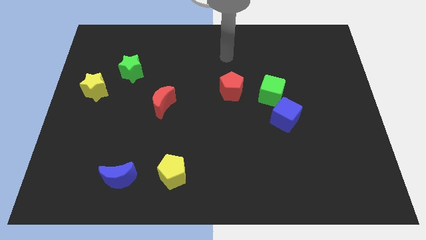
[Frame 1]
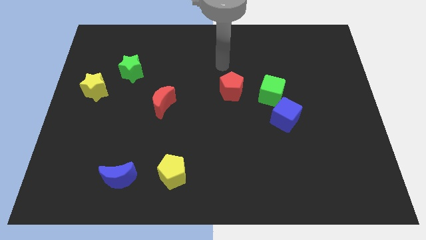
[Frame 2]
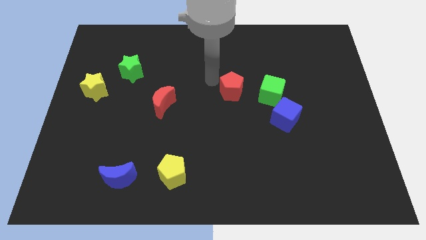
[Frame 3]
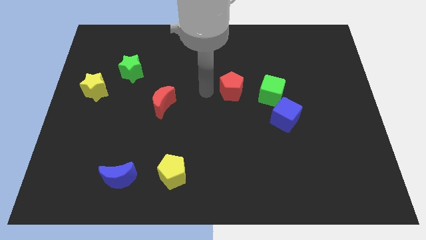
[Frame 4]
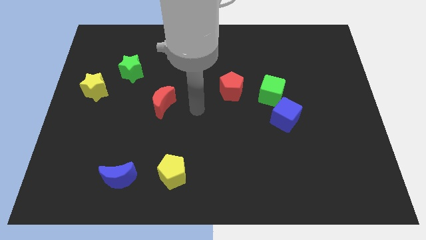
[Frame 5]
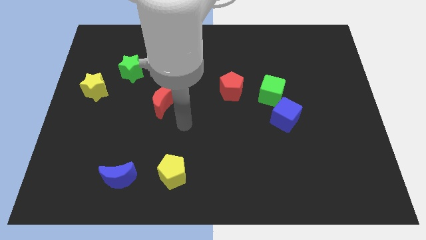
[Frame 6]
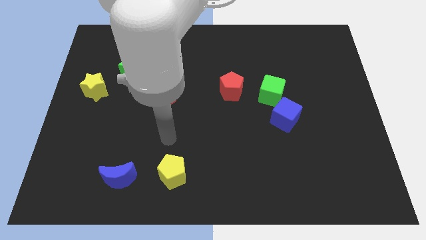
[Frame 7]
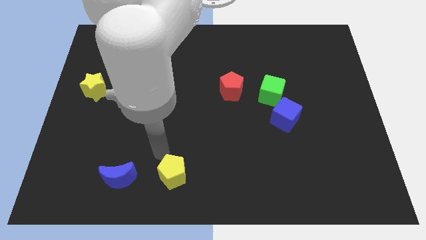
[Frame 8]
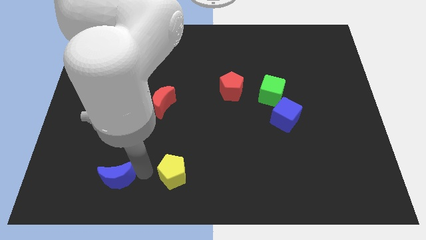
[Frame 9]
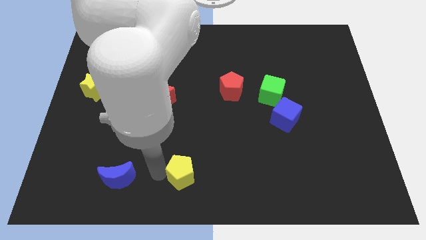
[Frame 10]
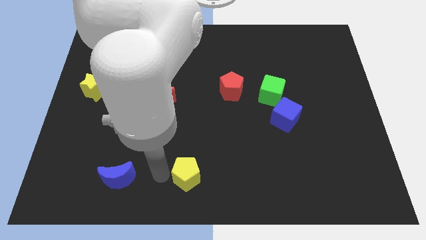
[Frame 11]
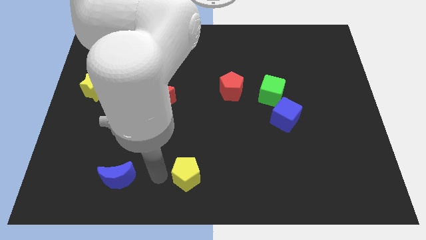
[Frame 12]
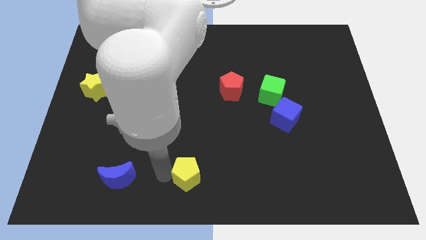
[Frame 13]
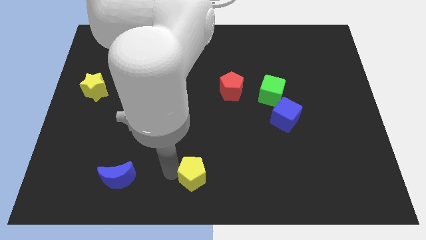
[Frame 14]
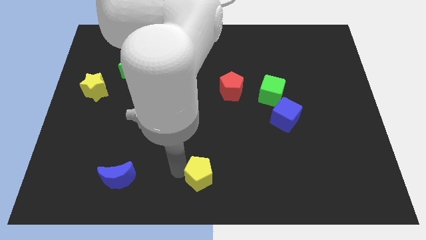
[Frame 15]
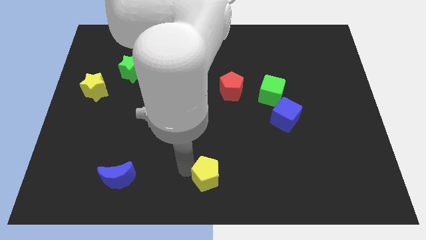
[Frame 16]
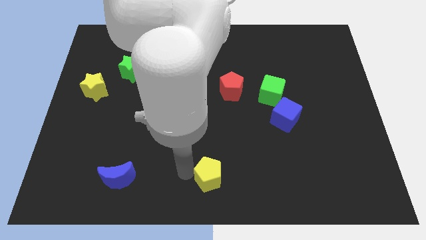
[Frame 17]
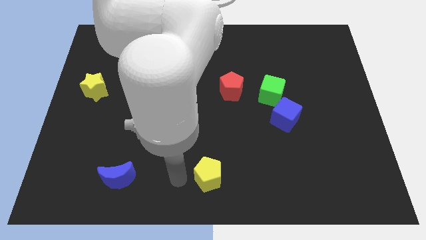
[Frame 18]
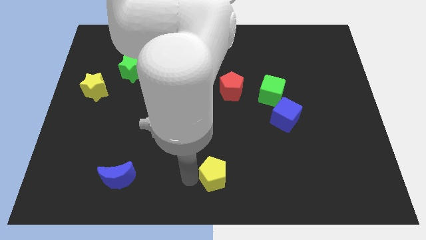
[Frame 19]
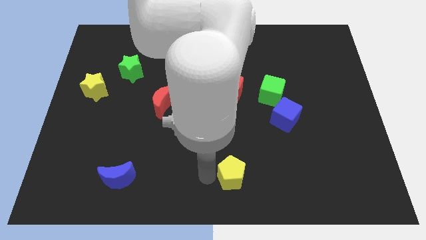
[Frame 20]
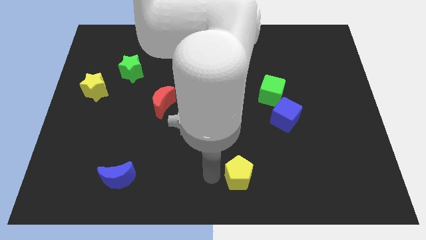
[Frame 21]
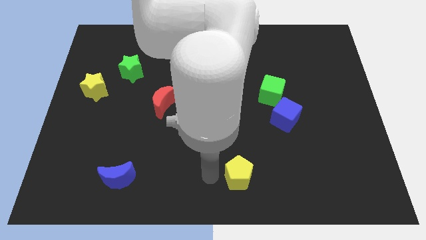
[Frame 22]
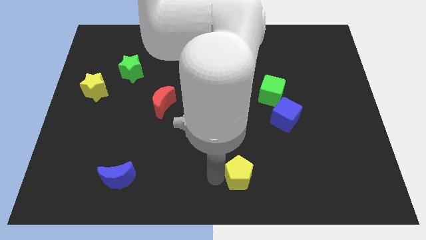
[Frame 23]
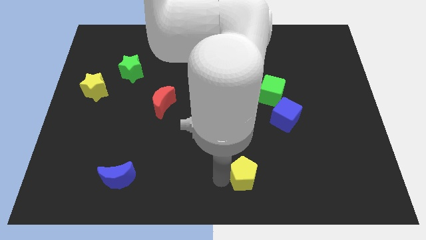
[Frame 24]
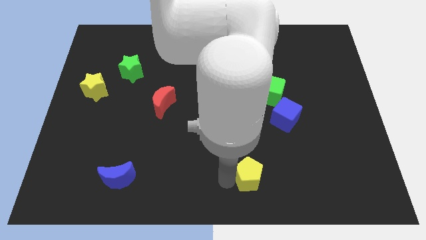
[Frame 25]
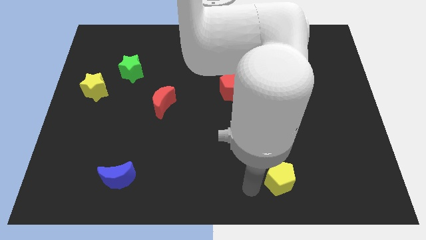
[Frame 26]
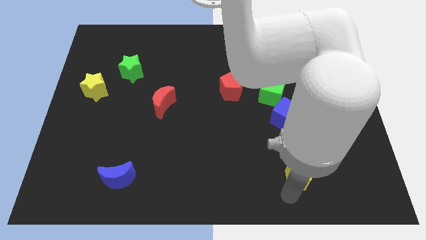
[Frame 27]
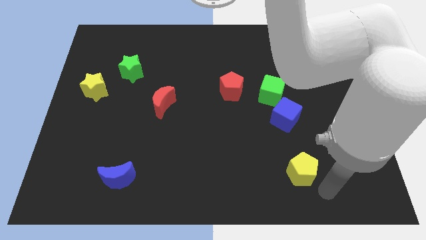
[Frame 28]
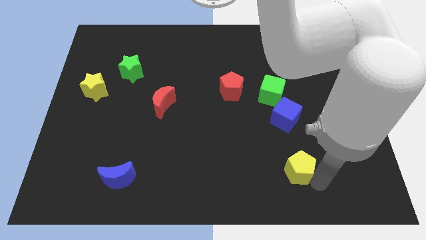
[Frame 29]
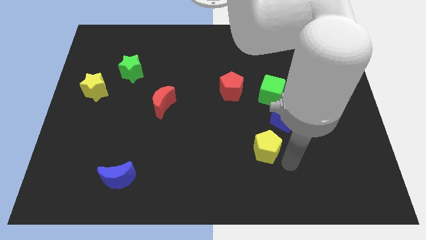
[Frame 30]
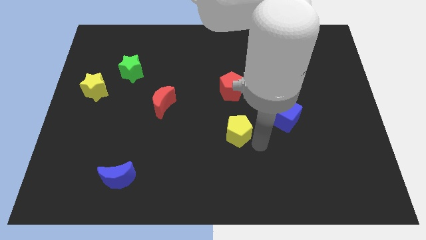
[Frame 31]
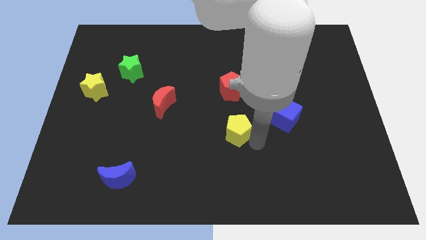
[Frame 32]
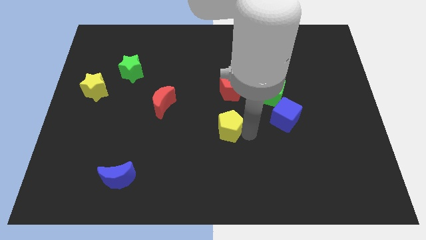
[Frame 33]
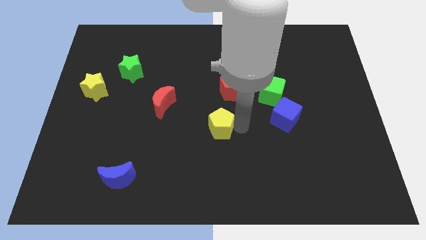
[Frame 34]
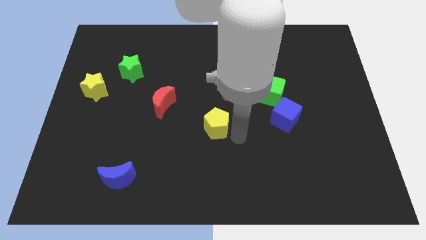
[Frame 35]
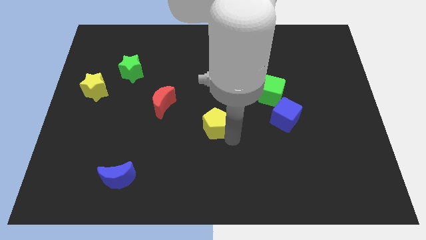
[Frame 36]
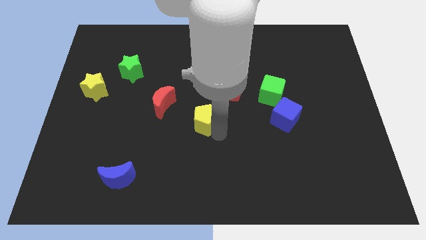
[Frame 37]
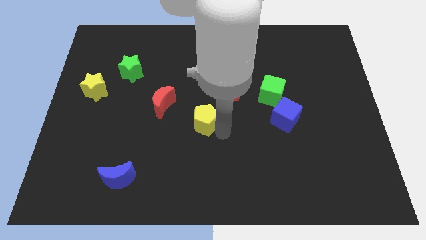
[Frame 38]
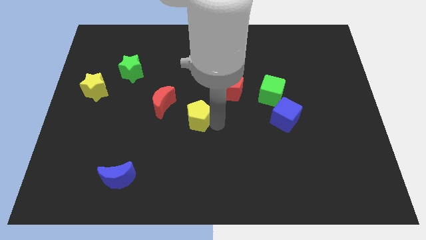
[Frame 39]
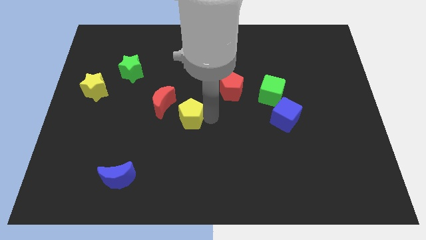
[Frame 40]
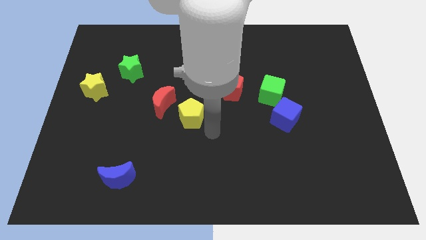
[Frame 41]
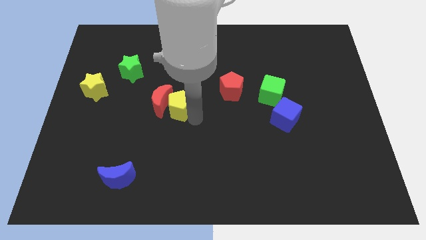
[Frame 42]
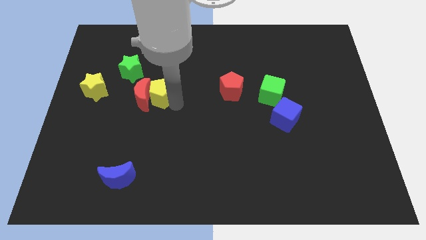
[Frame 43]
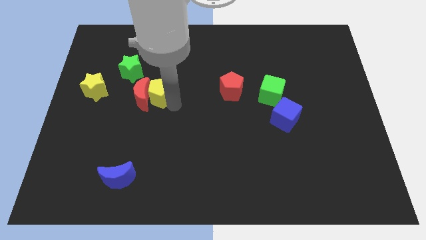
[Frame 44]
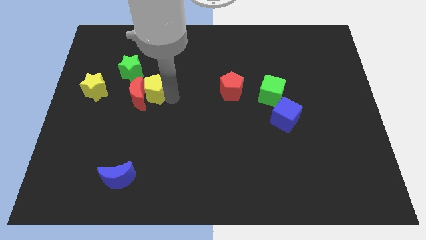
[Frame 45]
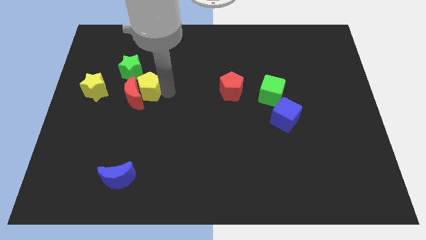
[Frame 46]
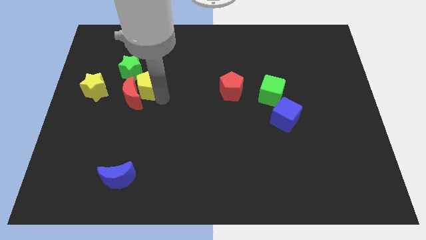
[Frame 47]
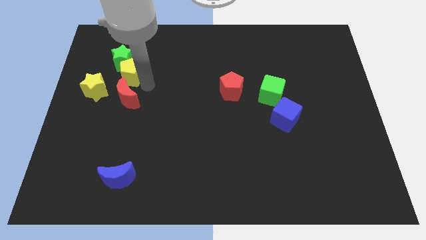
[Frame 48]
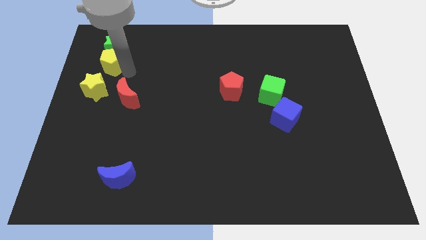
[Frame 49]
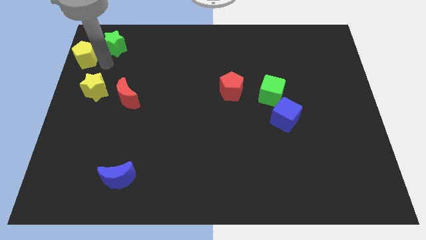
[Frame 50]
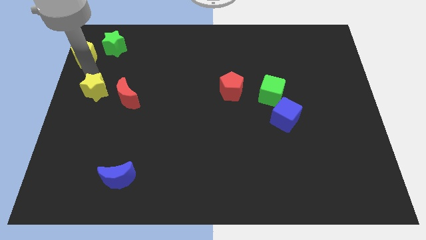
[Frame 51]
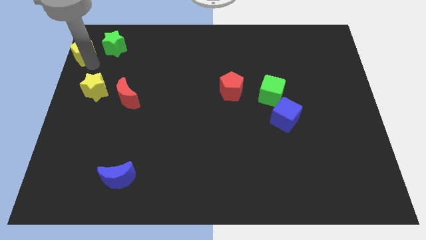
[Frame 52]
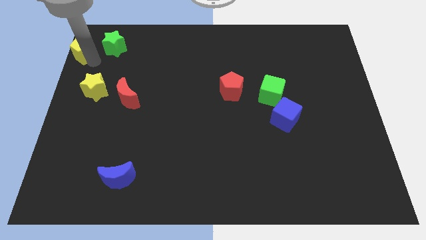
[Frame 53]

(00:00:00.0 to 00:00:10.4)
slide the yellow pentagon to the top left corner

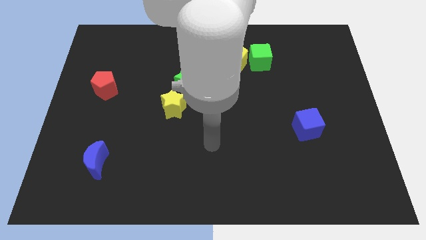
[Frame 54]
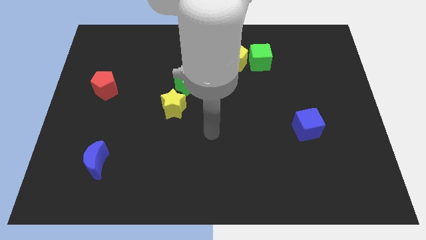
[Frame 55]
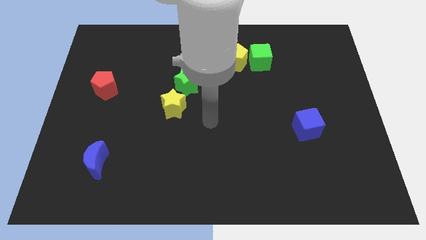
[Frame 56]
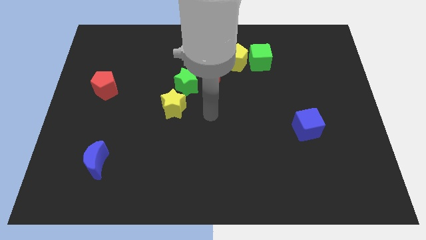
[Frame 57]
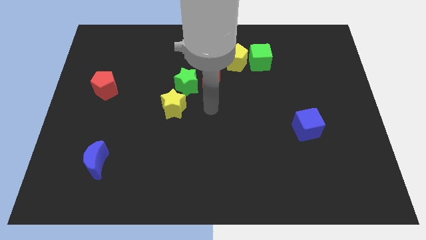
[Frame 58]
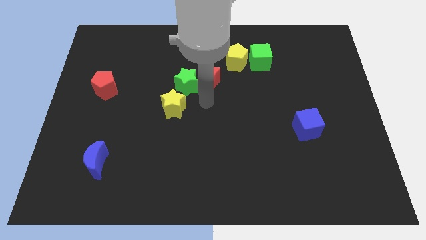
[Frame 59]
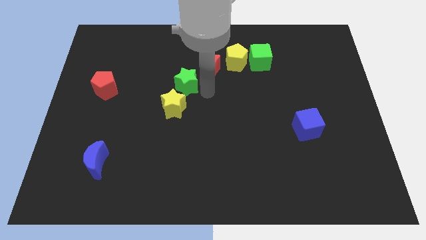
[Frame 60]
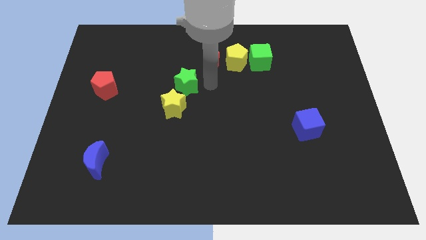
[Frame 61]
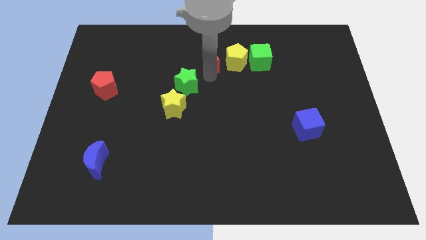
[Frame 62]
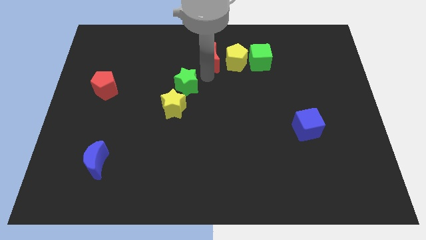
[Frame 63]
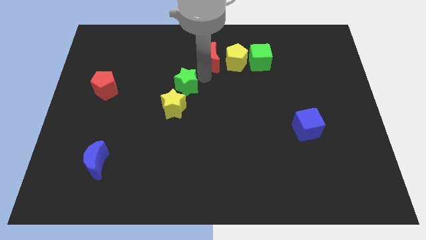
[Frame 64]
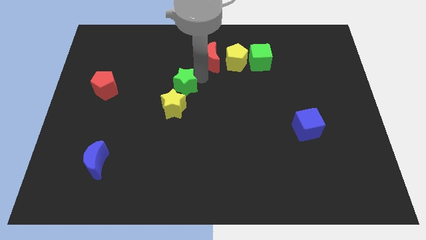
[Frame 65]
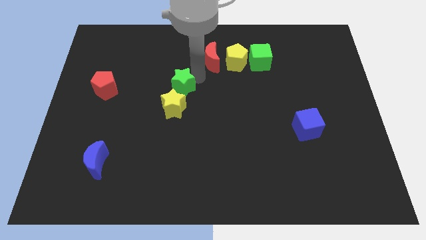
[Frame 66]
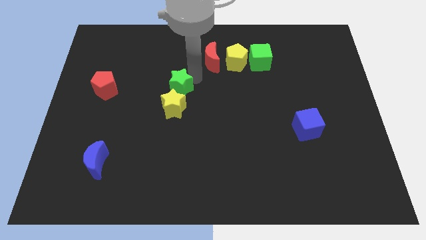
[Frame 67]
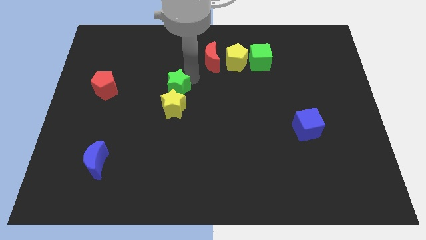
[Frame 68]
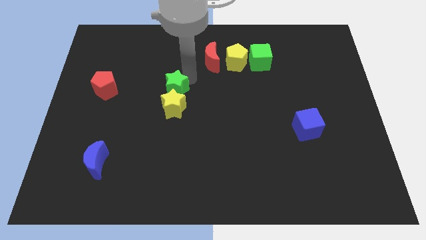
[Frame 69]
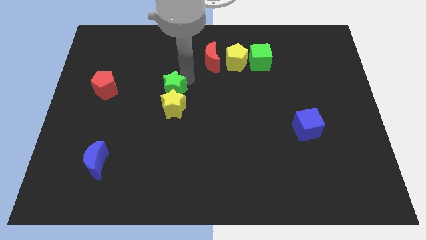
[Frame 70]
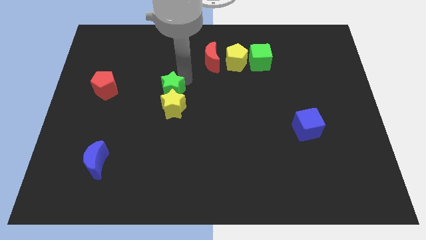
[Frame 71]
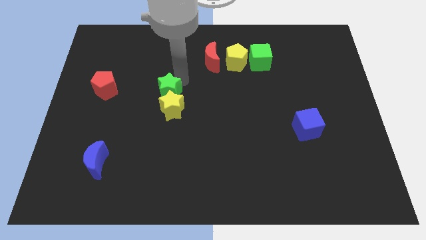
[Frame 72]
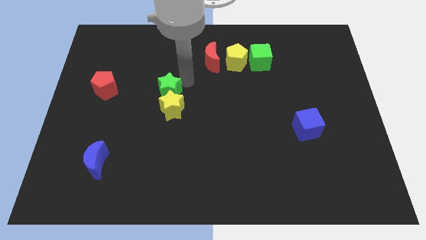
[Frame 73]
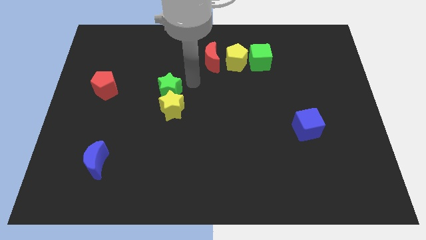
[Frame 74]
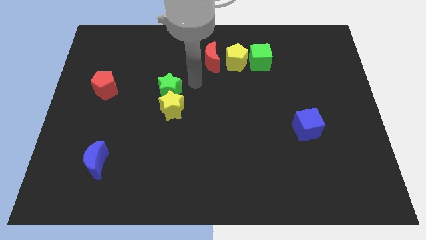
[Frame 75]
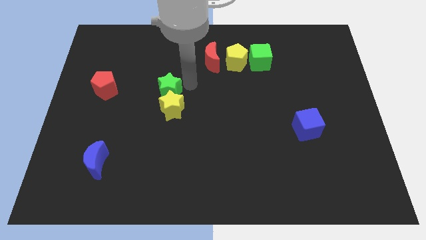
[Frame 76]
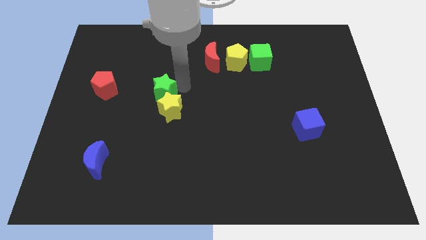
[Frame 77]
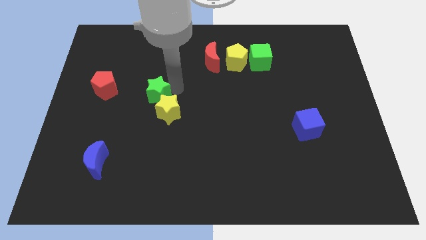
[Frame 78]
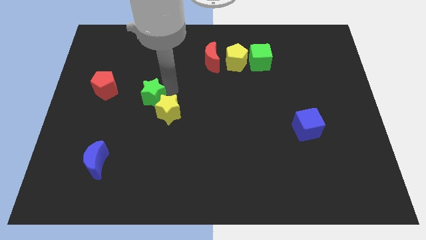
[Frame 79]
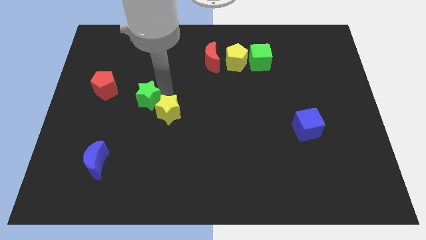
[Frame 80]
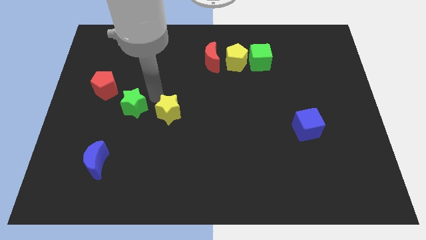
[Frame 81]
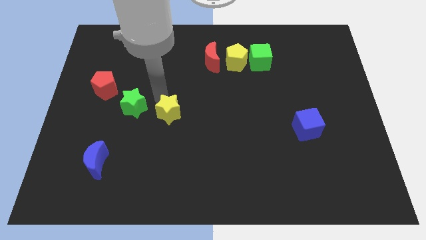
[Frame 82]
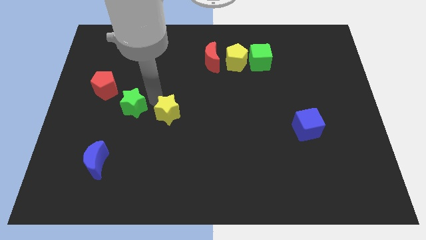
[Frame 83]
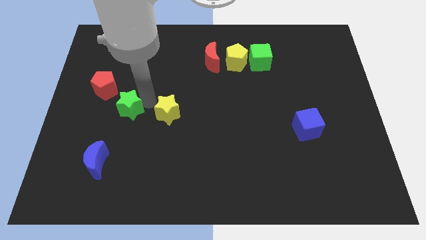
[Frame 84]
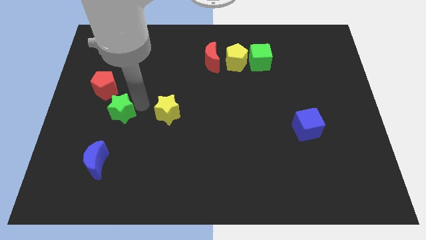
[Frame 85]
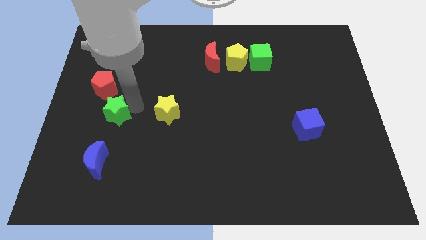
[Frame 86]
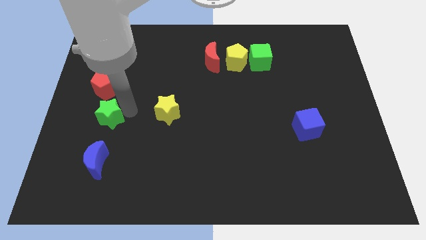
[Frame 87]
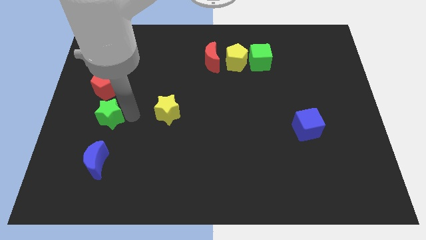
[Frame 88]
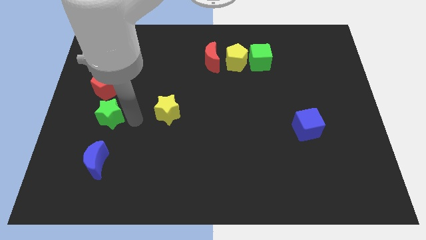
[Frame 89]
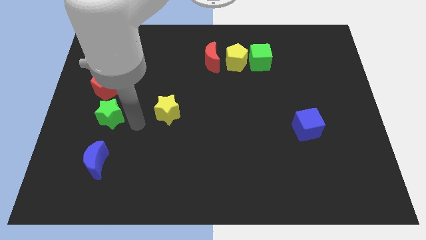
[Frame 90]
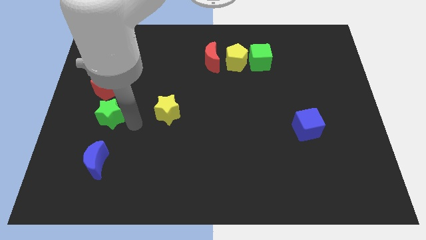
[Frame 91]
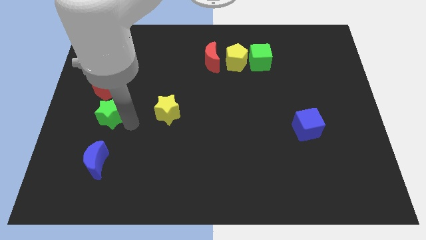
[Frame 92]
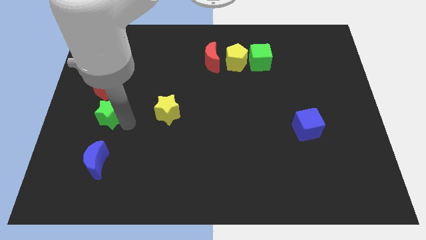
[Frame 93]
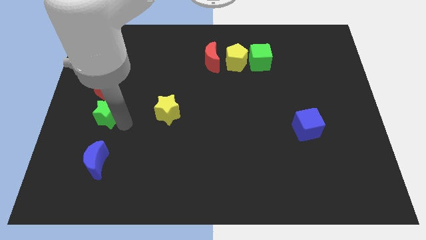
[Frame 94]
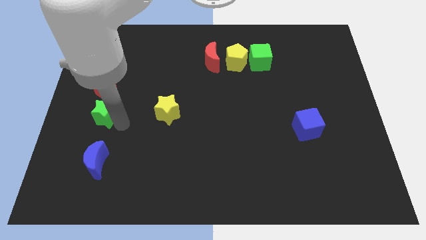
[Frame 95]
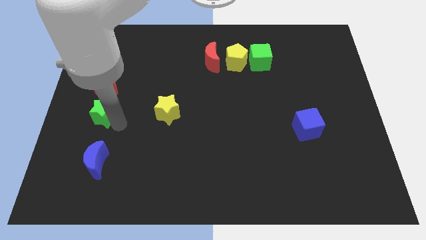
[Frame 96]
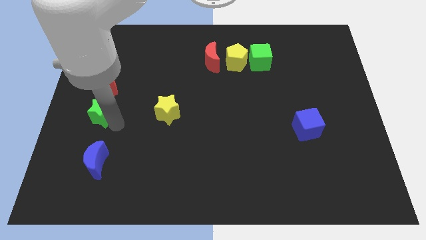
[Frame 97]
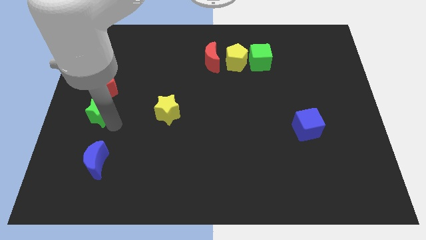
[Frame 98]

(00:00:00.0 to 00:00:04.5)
push the green star to the center left
